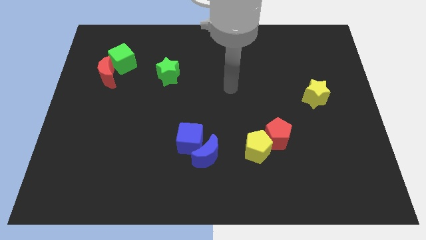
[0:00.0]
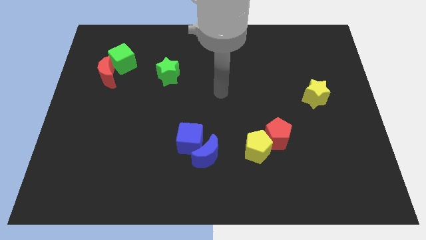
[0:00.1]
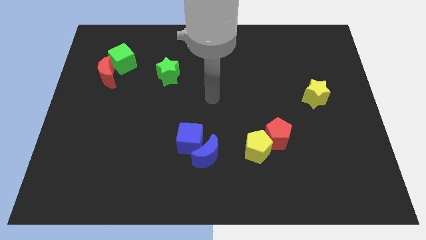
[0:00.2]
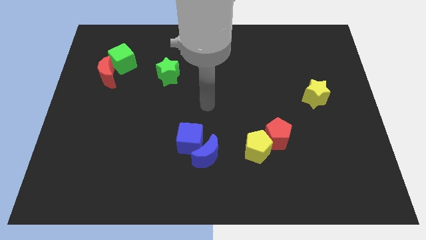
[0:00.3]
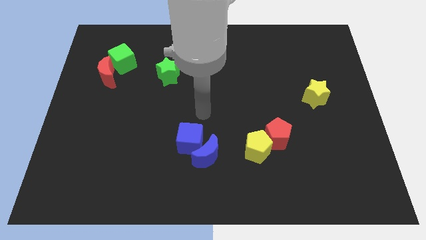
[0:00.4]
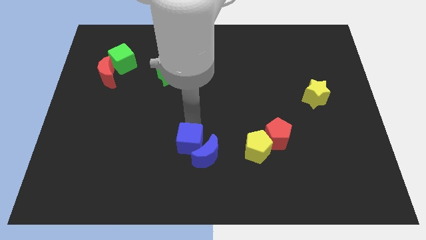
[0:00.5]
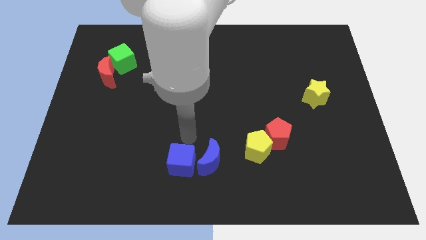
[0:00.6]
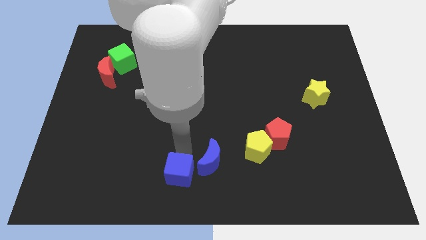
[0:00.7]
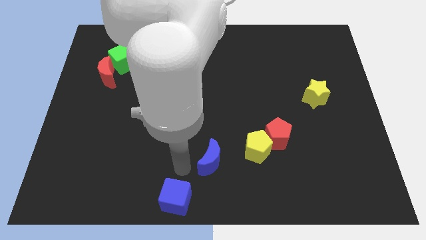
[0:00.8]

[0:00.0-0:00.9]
separate the blue moon from the blue cube

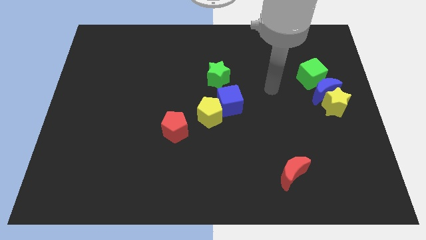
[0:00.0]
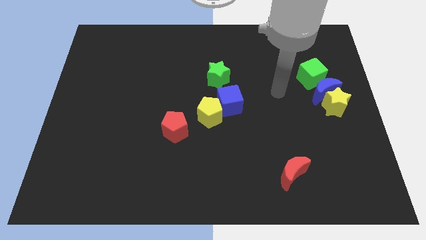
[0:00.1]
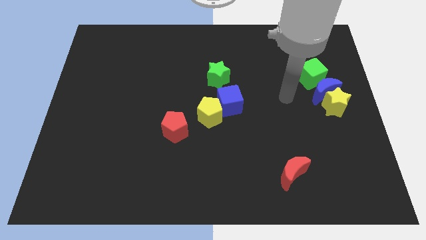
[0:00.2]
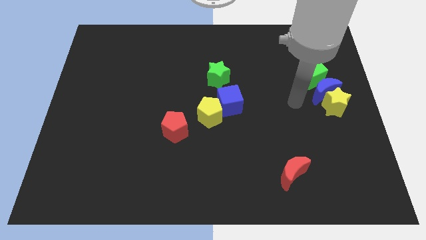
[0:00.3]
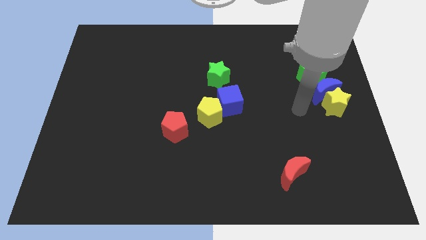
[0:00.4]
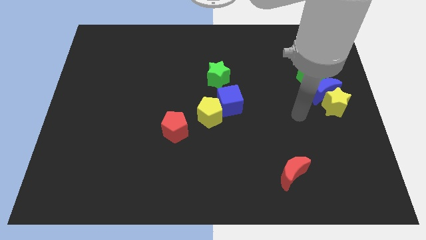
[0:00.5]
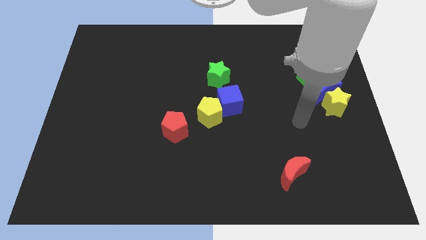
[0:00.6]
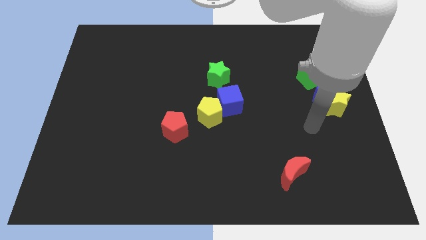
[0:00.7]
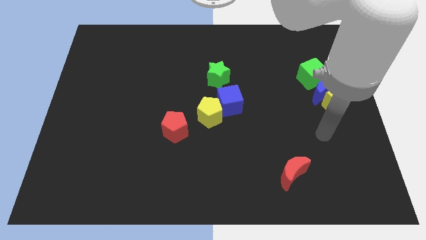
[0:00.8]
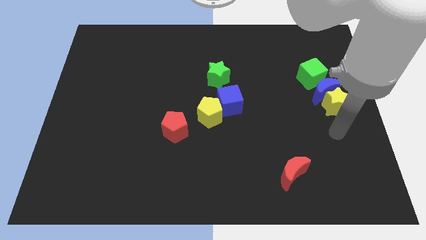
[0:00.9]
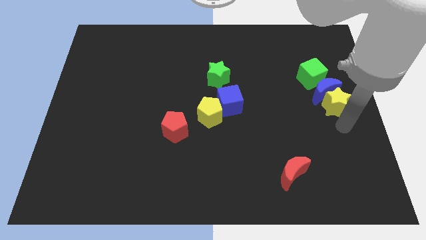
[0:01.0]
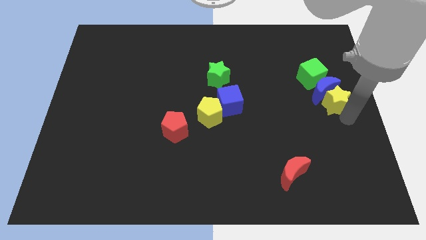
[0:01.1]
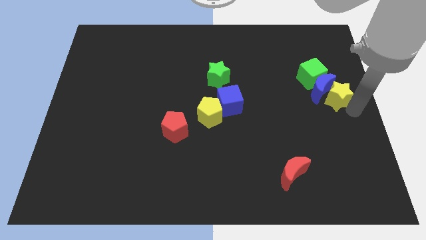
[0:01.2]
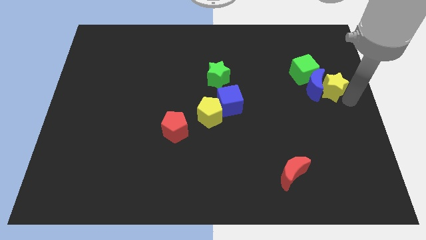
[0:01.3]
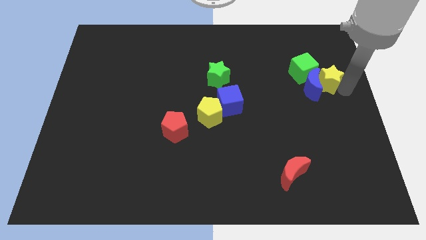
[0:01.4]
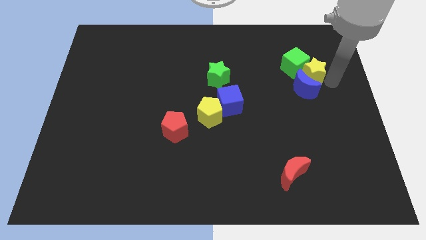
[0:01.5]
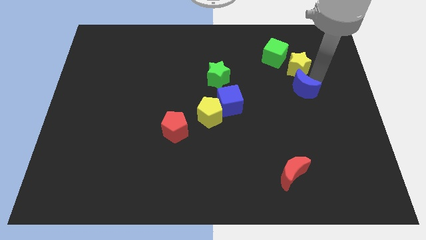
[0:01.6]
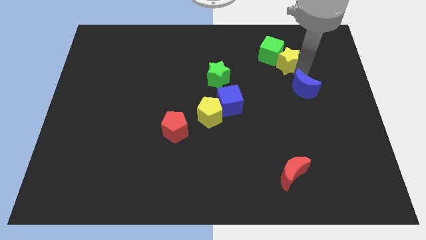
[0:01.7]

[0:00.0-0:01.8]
separate the blue moon from the yellow star and green cube

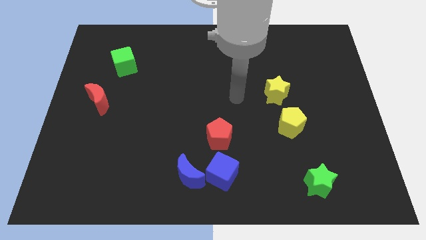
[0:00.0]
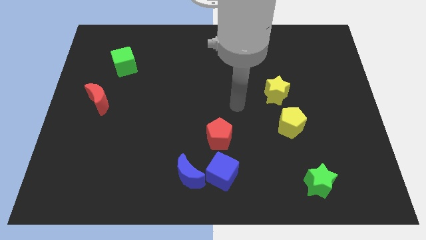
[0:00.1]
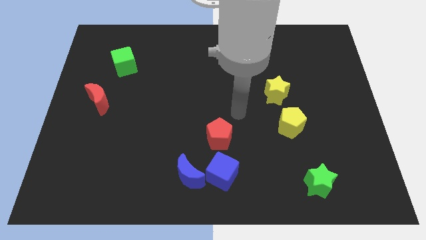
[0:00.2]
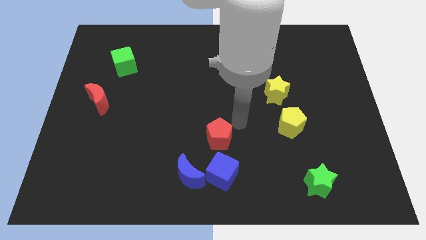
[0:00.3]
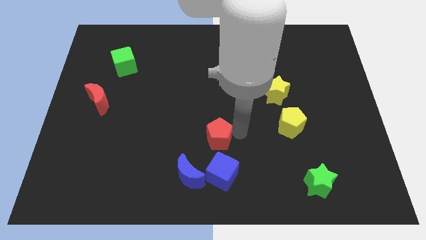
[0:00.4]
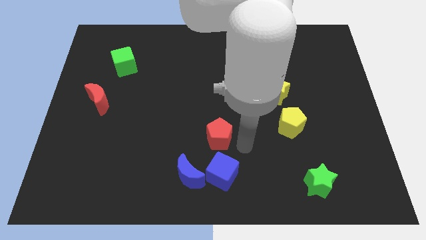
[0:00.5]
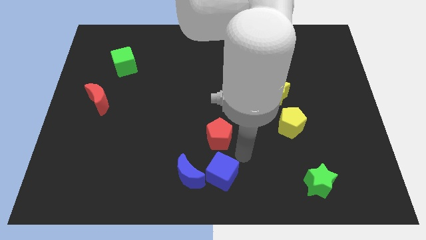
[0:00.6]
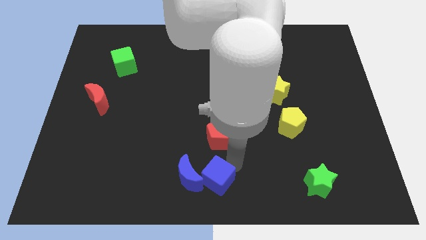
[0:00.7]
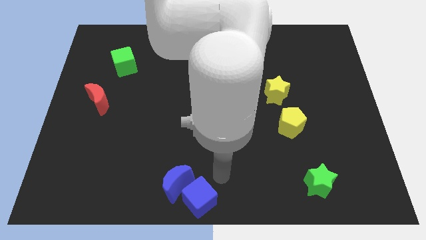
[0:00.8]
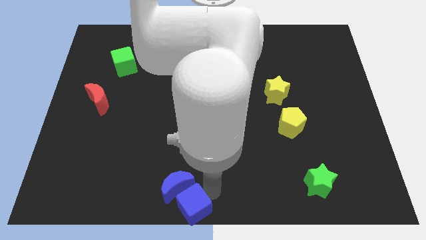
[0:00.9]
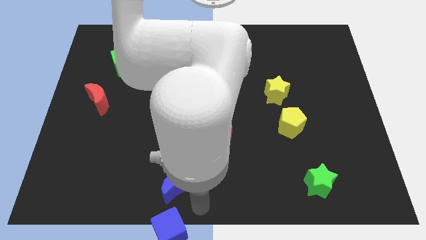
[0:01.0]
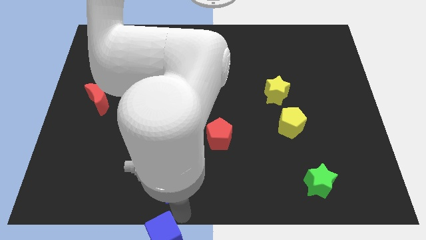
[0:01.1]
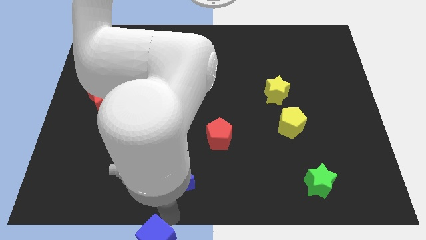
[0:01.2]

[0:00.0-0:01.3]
pull the blue moon apart from the blue cube

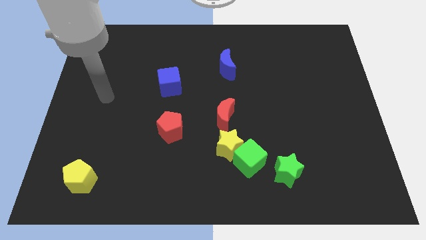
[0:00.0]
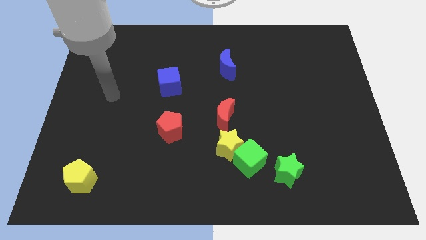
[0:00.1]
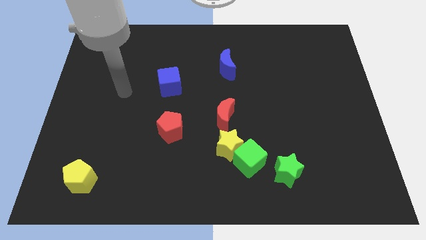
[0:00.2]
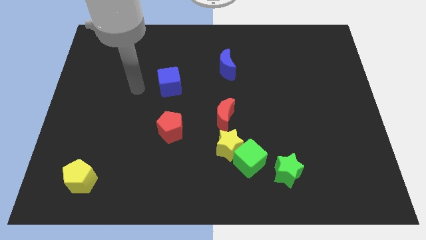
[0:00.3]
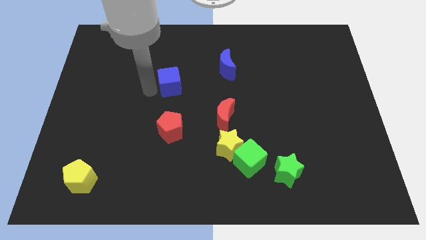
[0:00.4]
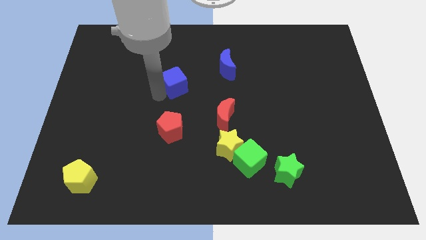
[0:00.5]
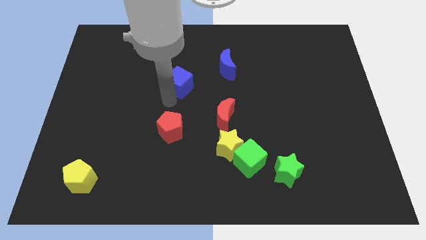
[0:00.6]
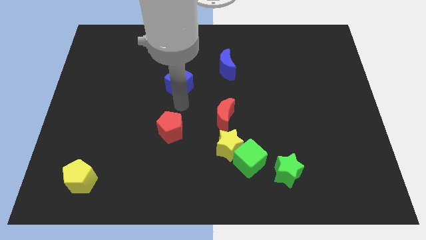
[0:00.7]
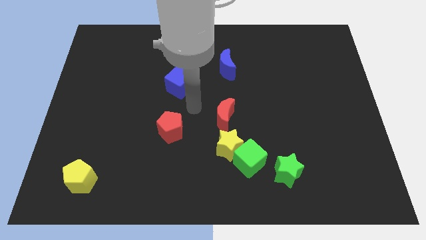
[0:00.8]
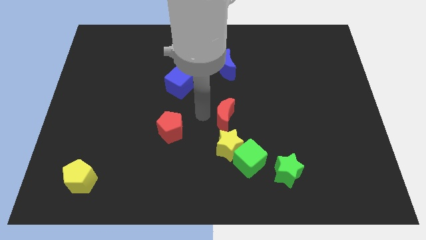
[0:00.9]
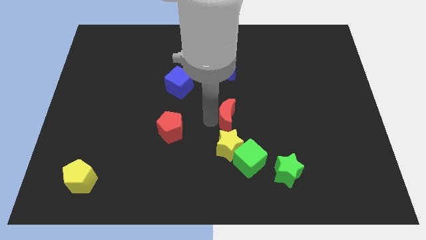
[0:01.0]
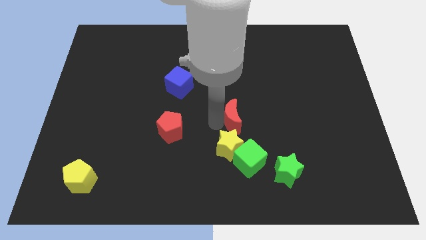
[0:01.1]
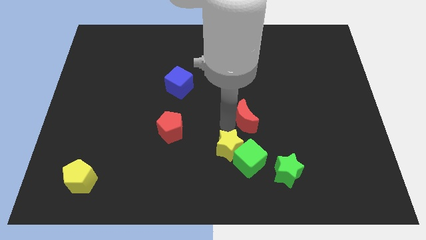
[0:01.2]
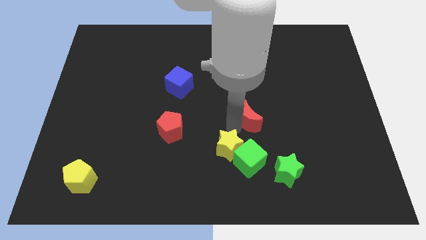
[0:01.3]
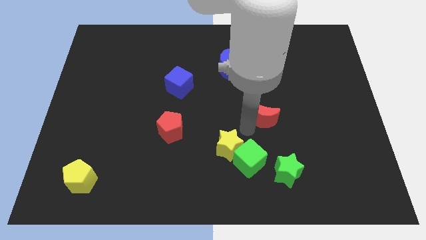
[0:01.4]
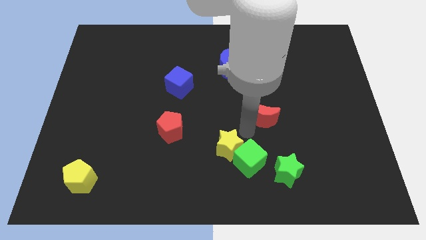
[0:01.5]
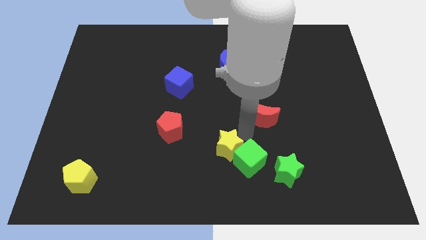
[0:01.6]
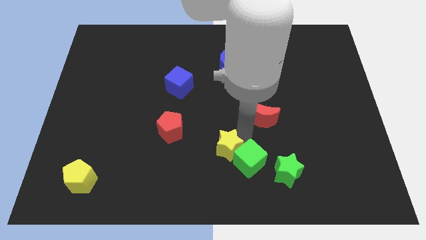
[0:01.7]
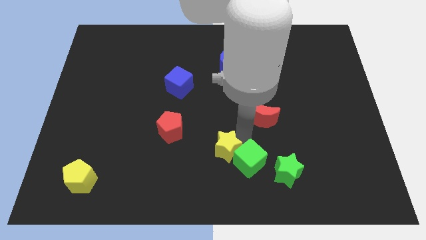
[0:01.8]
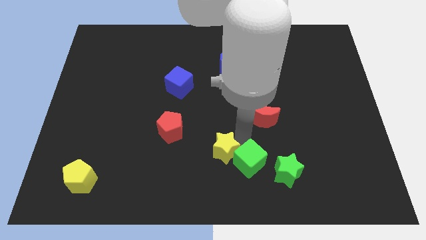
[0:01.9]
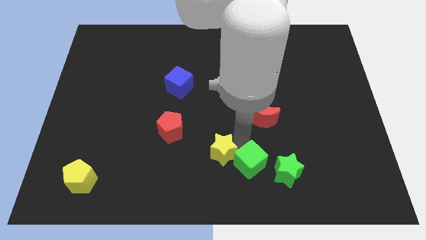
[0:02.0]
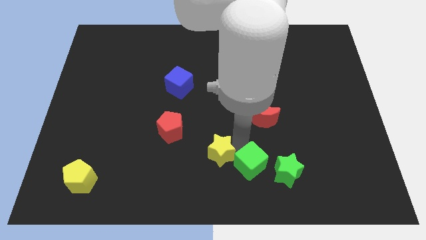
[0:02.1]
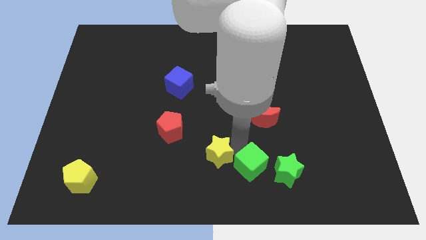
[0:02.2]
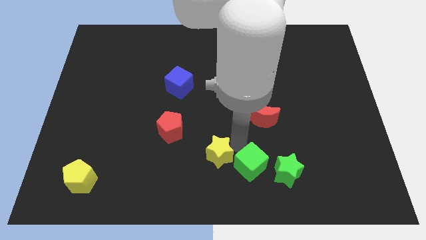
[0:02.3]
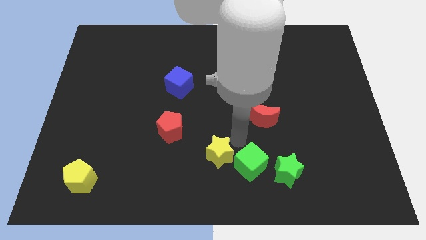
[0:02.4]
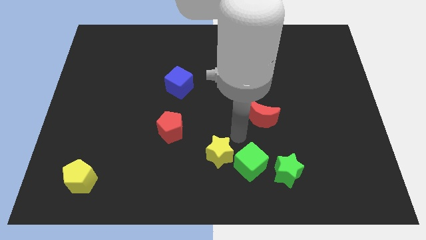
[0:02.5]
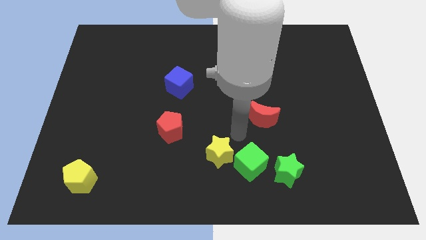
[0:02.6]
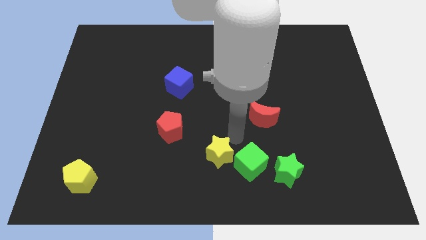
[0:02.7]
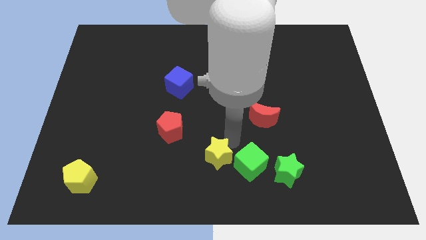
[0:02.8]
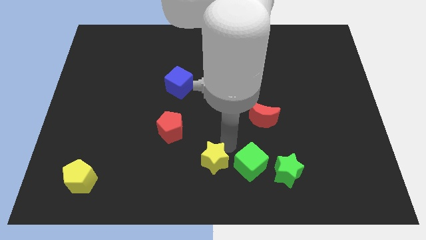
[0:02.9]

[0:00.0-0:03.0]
pull the yellow star apart from the green cube and red moon

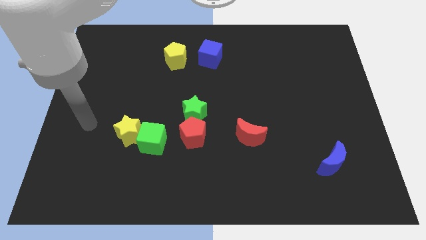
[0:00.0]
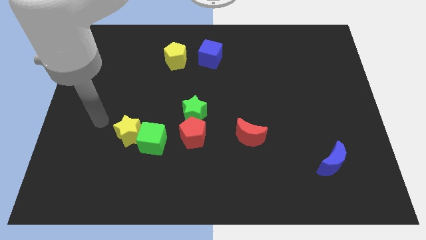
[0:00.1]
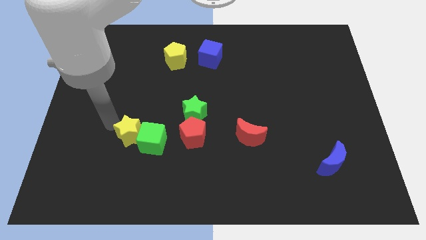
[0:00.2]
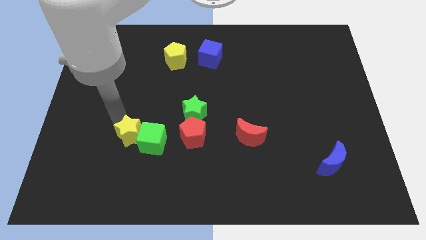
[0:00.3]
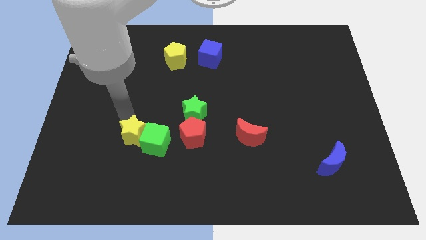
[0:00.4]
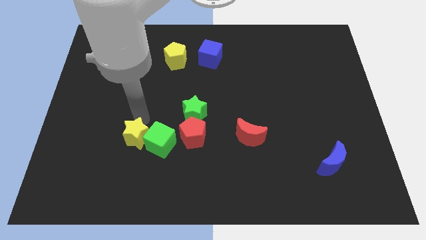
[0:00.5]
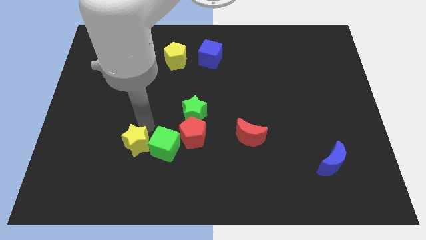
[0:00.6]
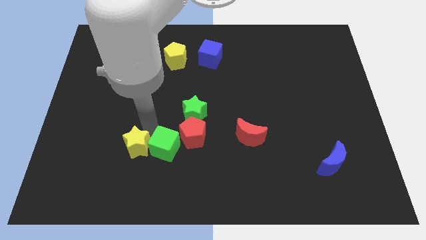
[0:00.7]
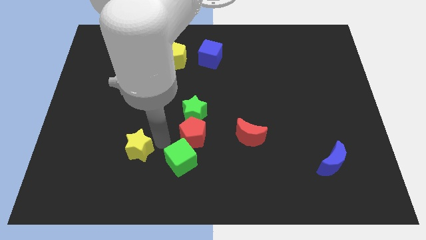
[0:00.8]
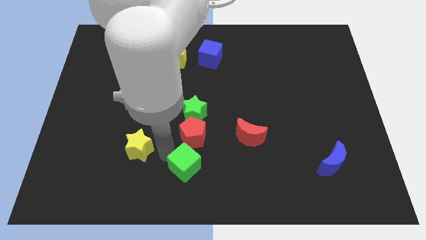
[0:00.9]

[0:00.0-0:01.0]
separate the yellow star from the green cube

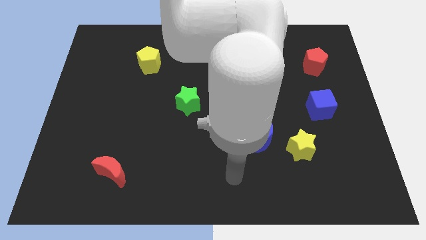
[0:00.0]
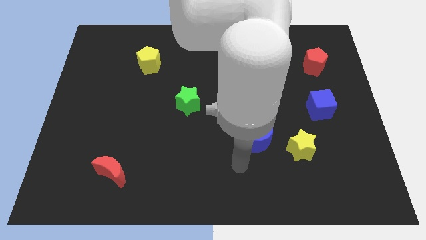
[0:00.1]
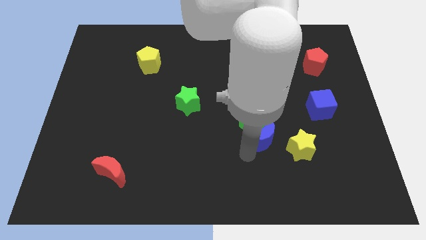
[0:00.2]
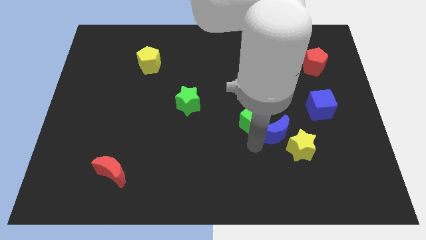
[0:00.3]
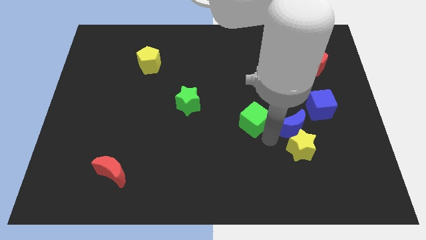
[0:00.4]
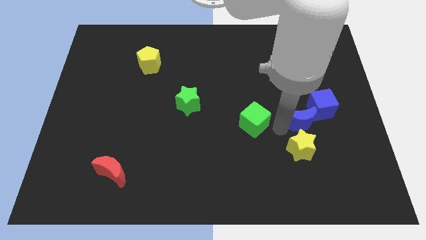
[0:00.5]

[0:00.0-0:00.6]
pull the green cube apart from the blue moon

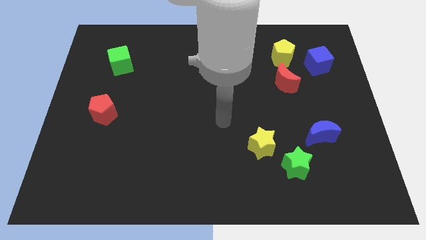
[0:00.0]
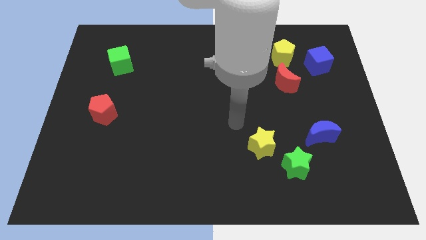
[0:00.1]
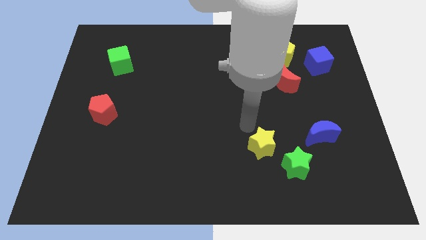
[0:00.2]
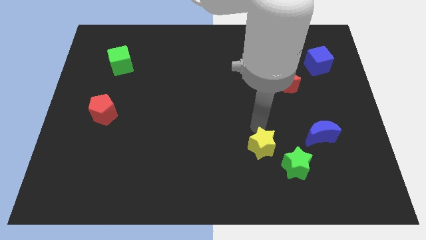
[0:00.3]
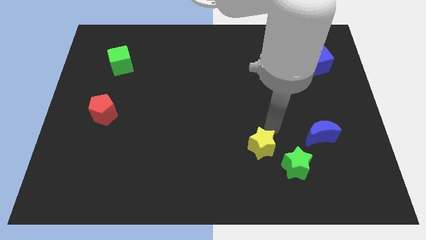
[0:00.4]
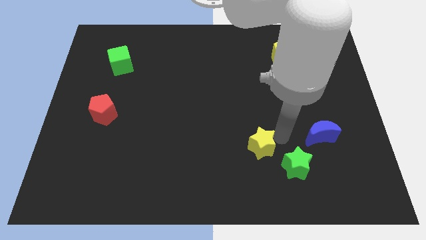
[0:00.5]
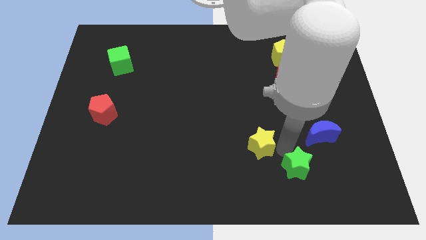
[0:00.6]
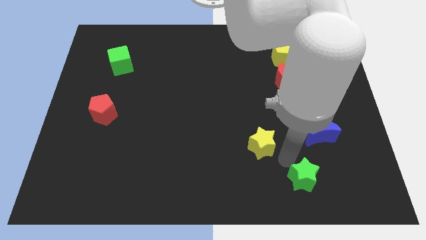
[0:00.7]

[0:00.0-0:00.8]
move the yellow star away from the green star
